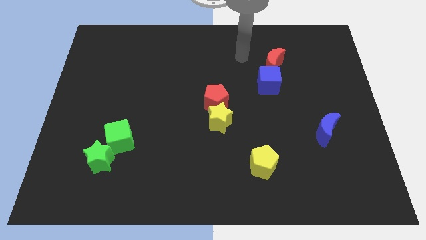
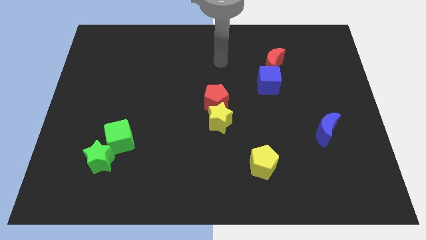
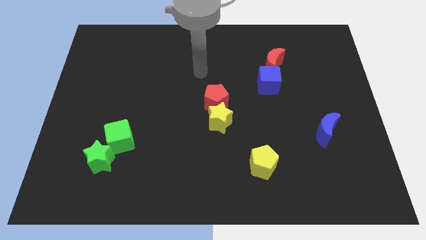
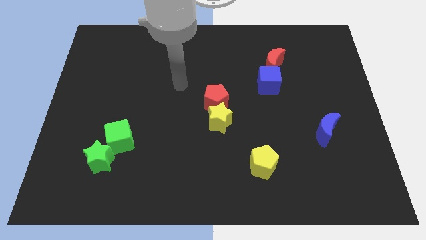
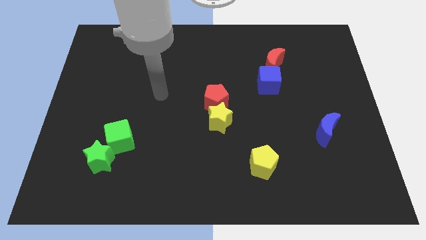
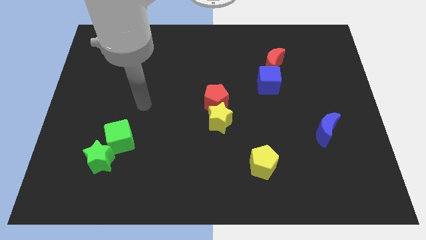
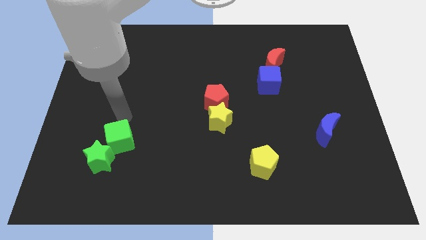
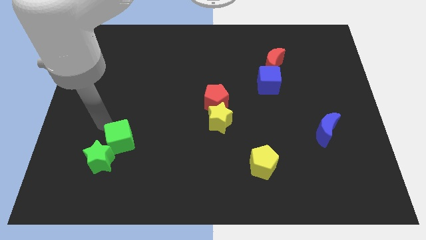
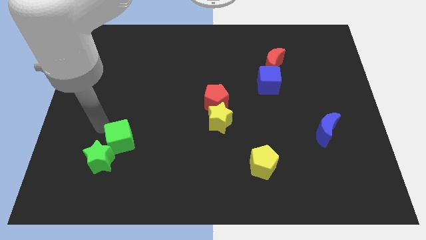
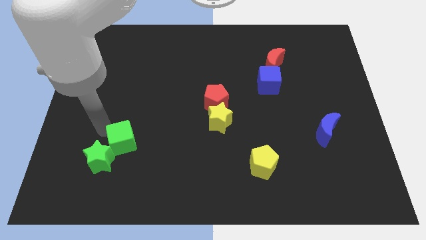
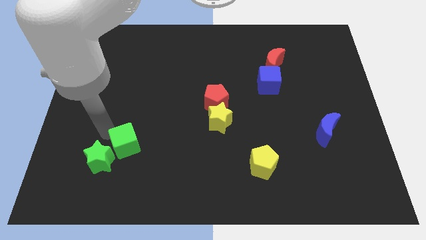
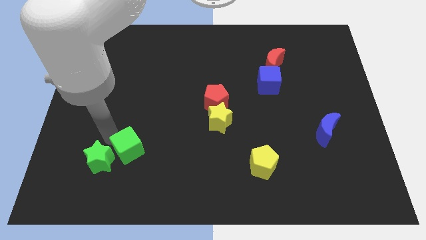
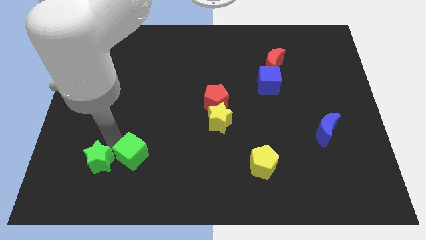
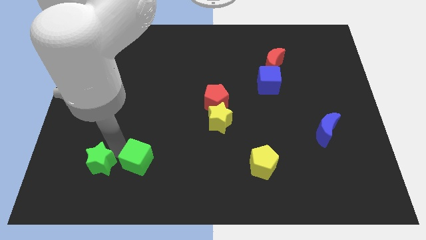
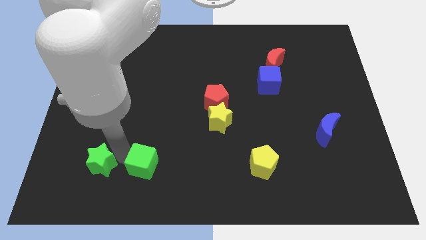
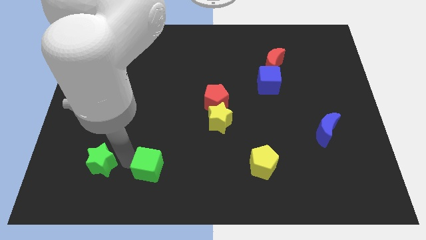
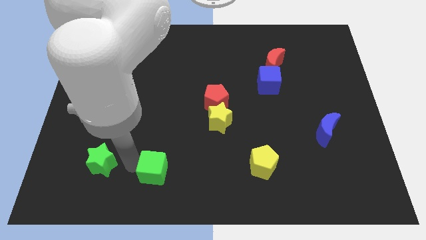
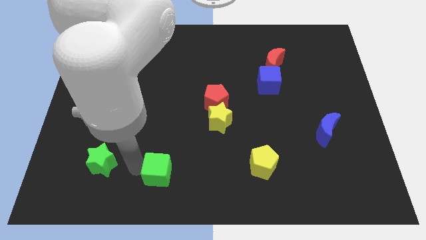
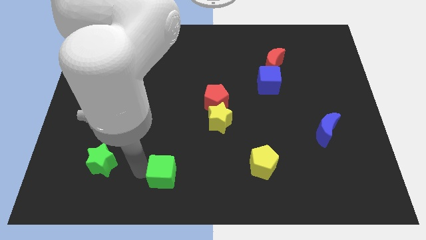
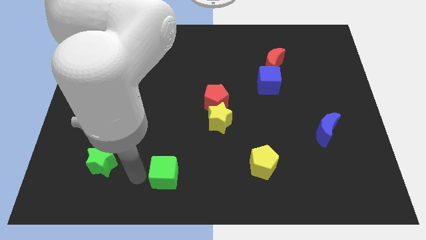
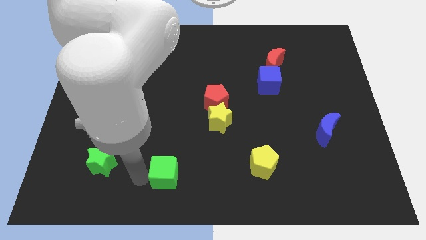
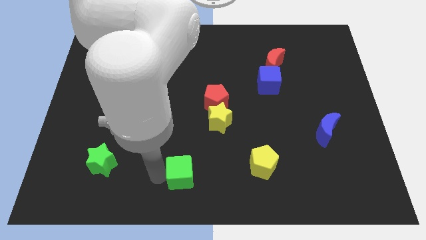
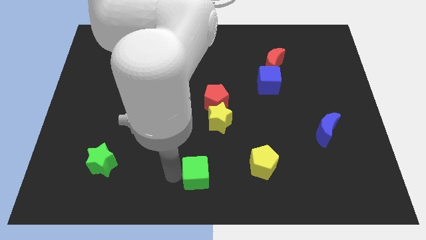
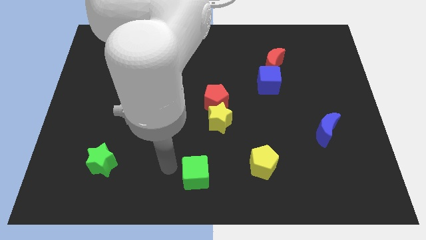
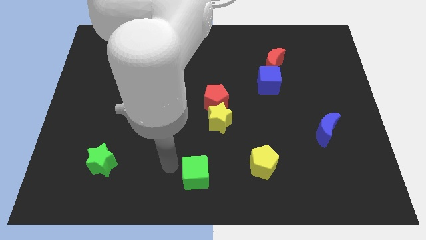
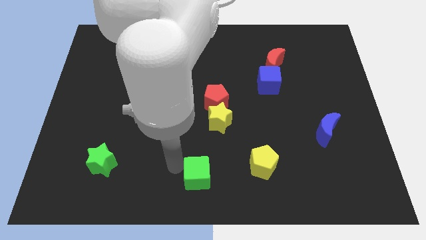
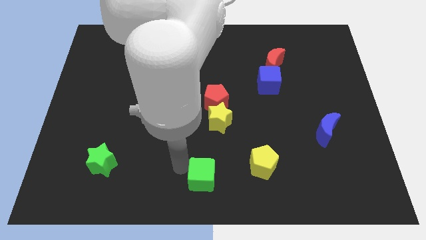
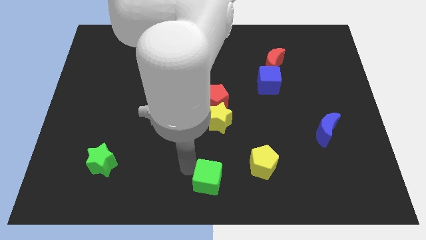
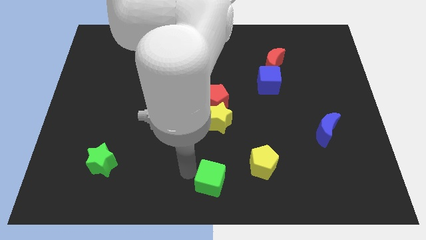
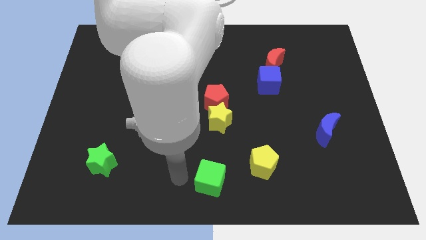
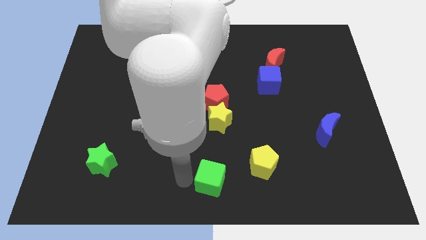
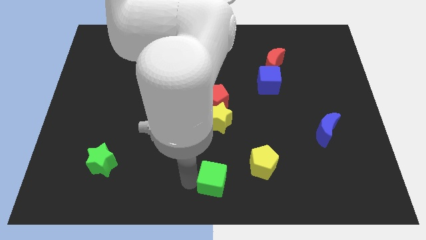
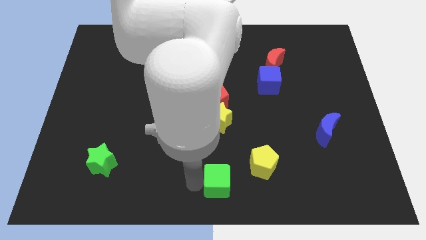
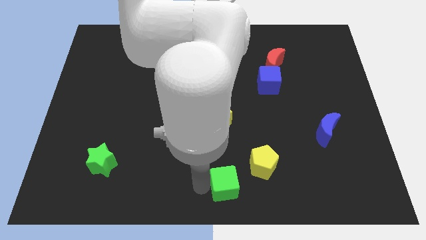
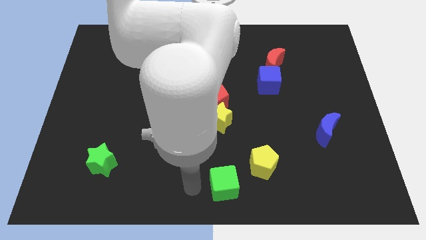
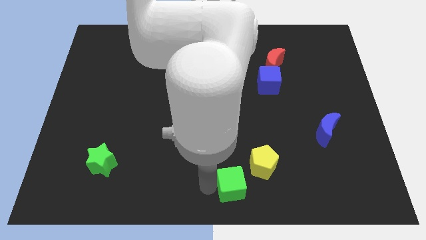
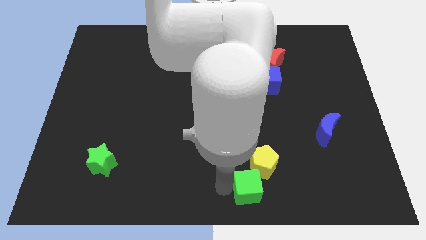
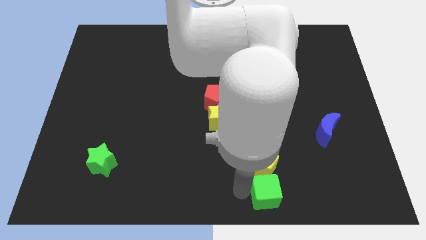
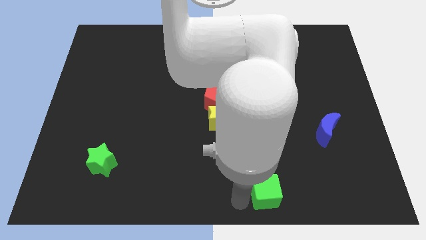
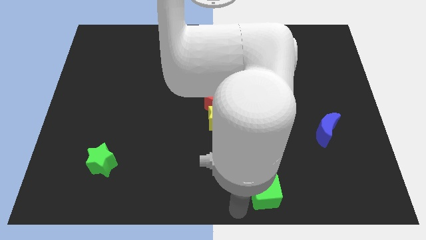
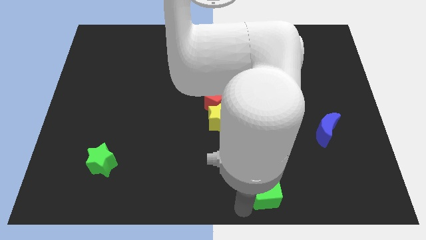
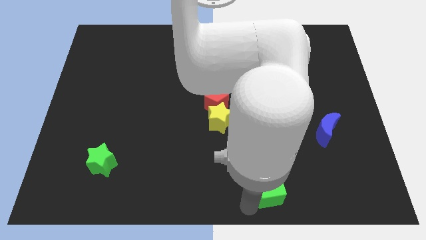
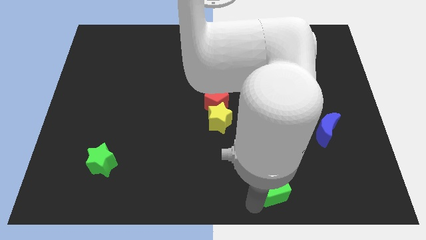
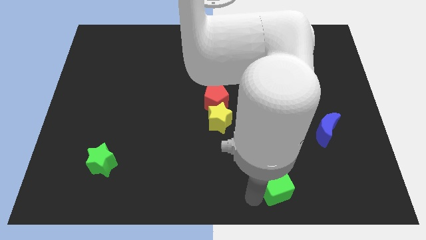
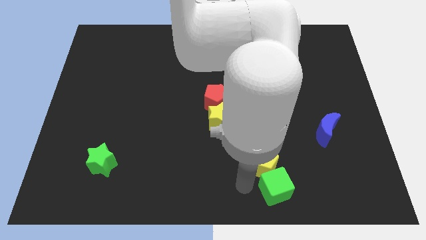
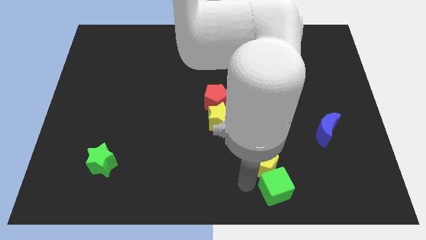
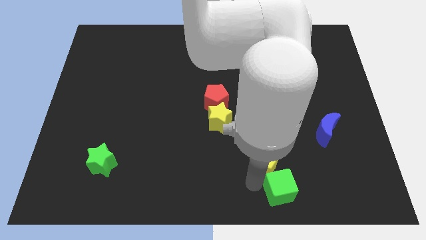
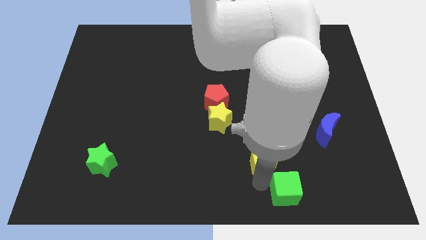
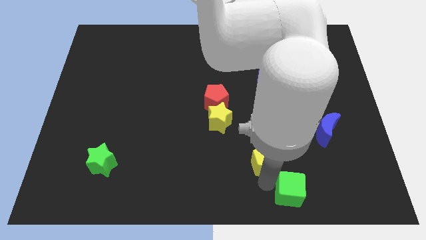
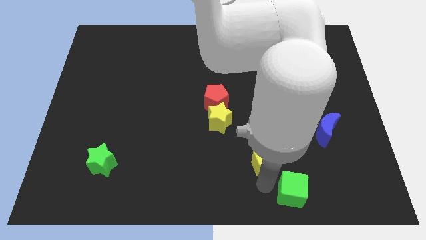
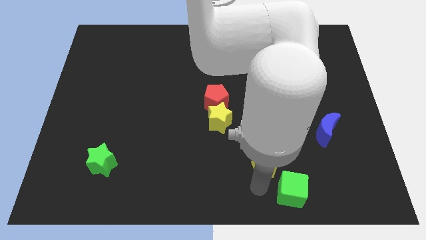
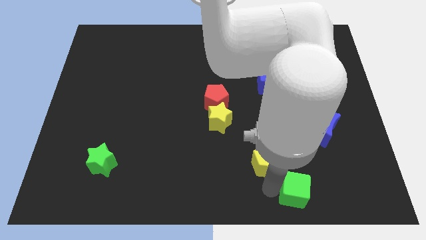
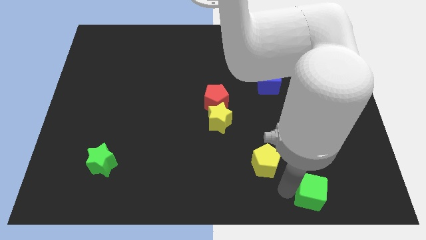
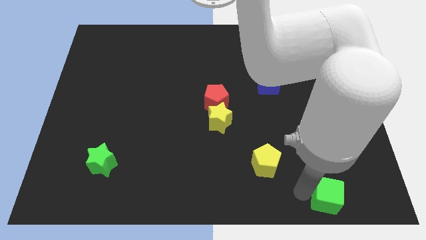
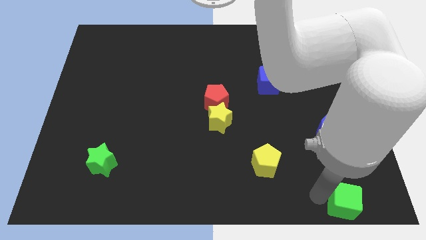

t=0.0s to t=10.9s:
slide the green cube to the bottom right

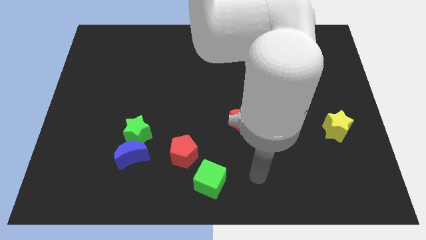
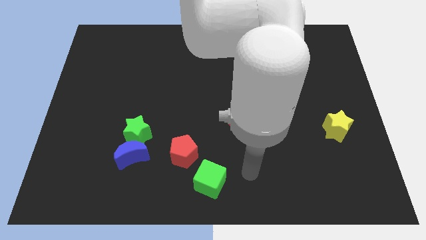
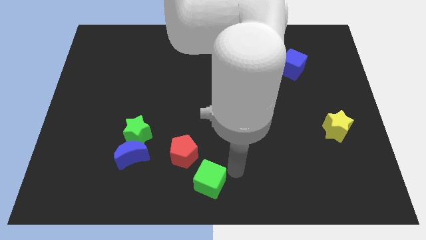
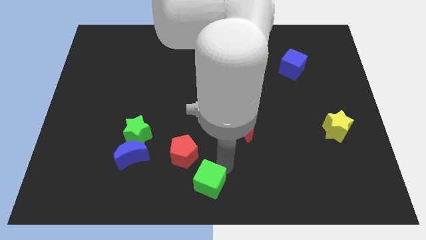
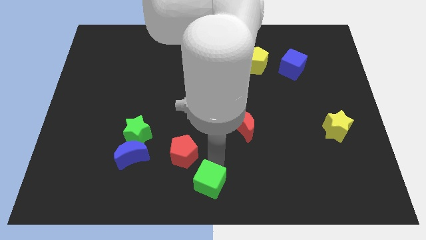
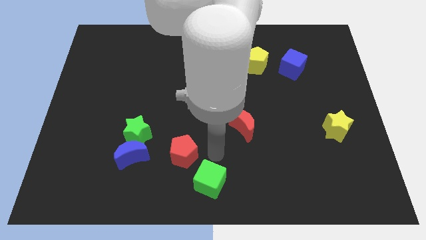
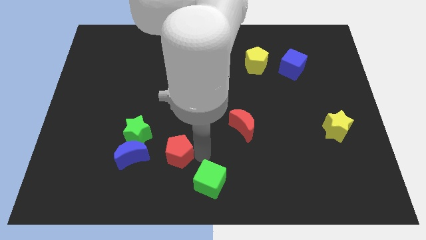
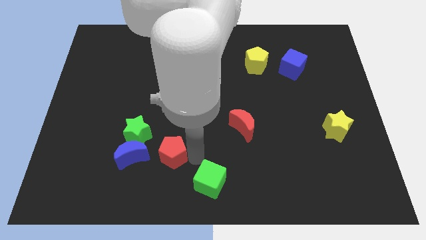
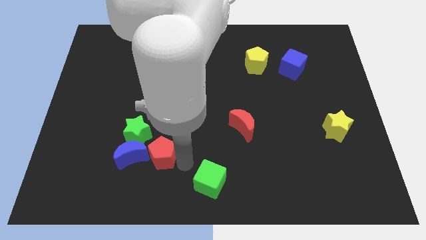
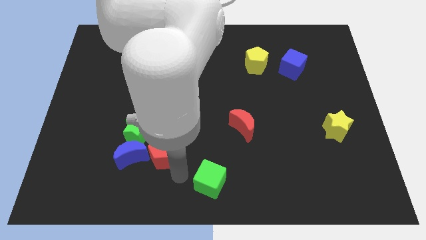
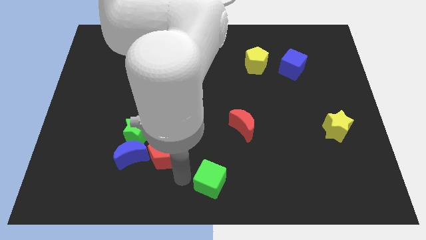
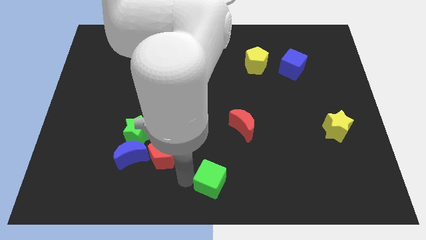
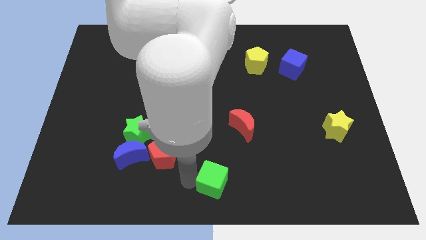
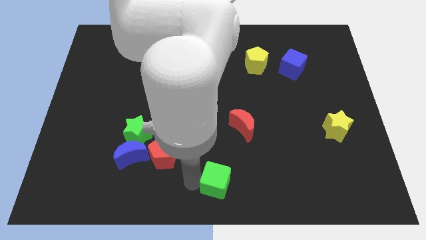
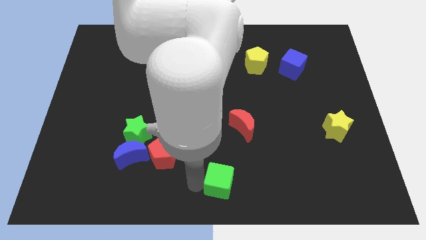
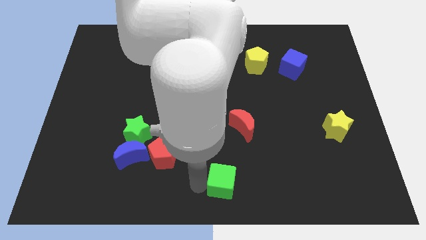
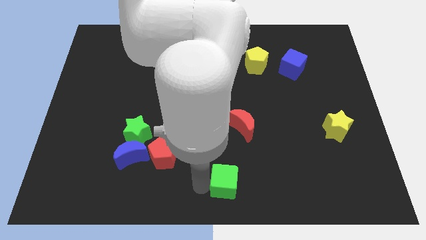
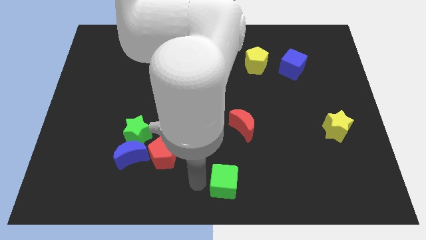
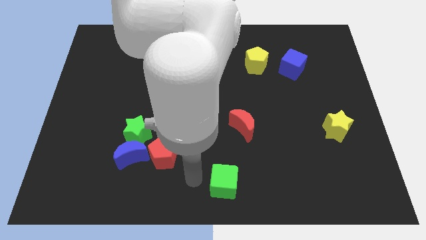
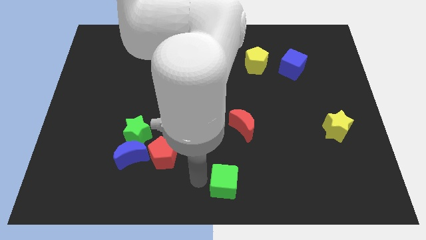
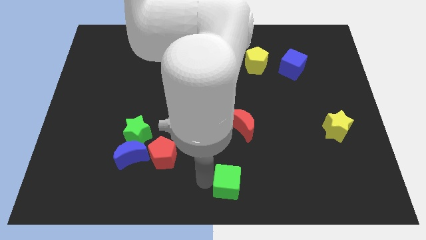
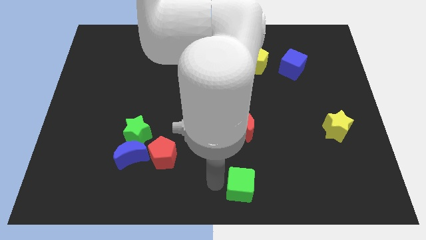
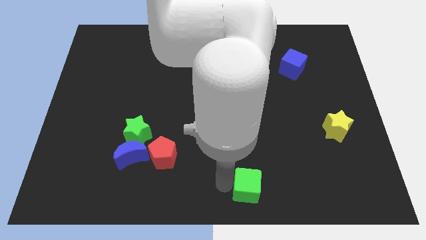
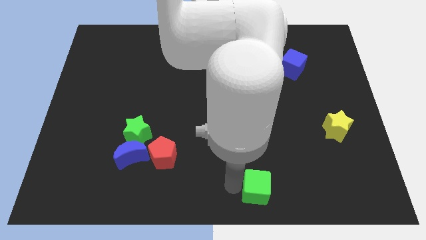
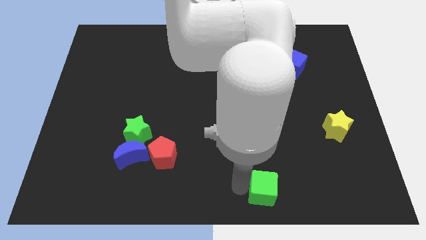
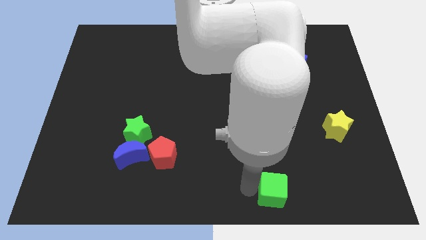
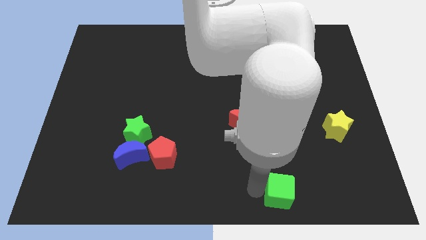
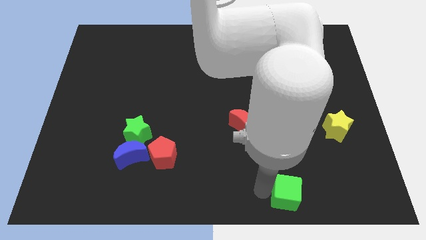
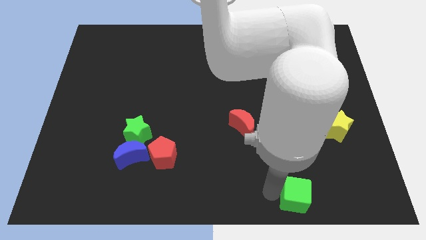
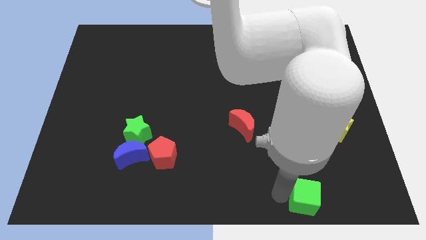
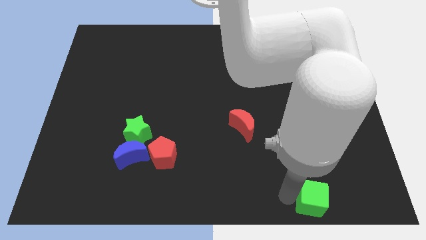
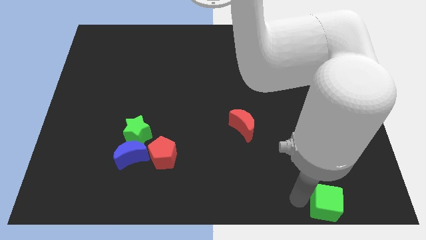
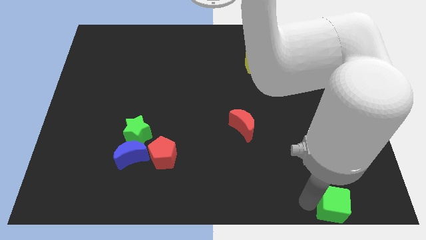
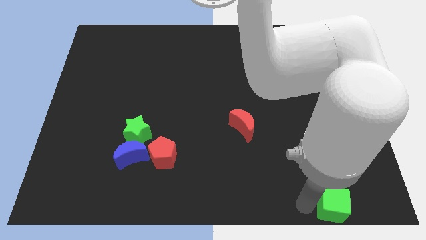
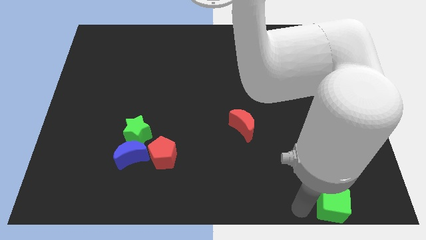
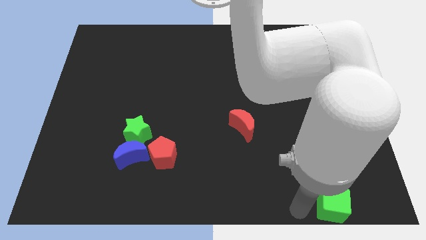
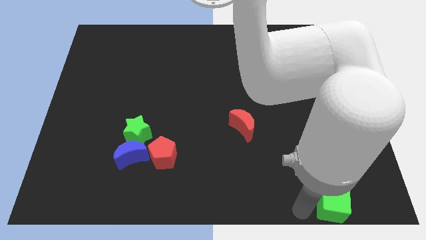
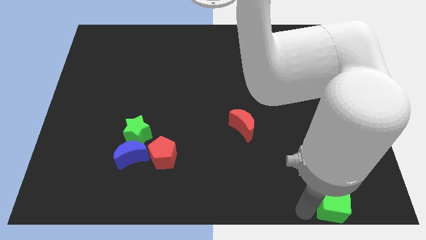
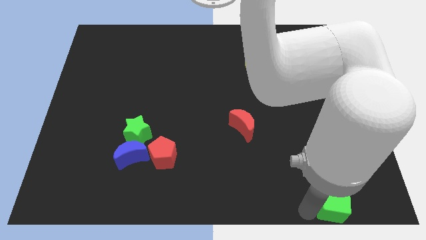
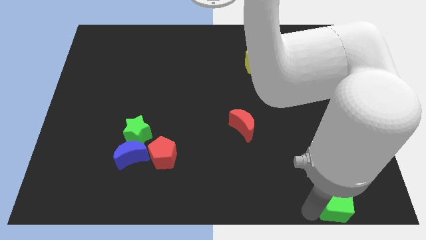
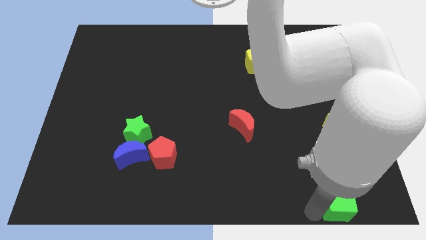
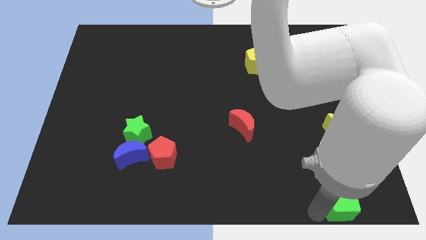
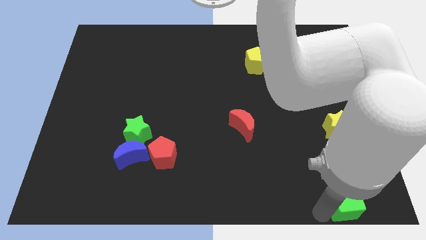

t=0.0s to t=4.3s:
push the green cube to the bottom right
